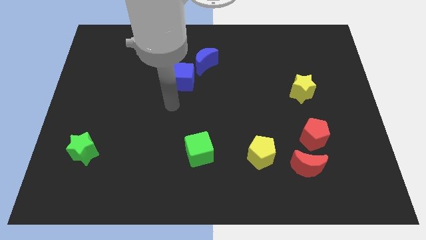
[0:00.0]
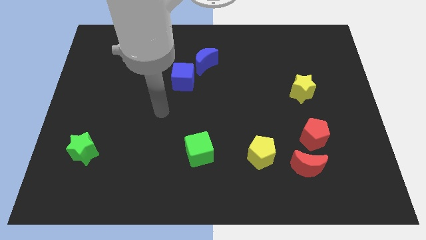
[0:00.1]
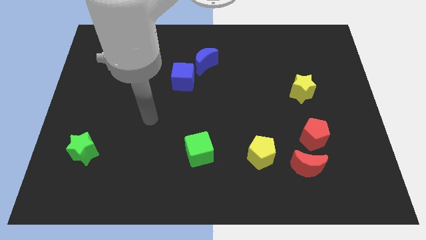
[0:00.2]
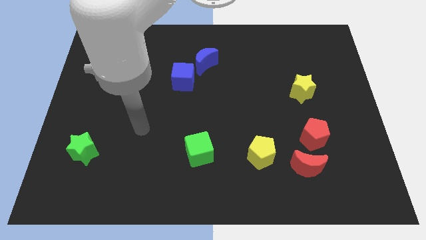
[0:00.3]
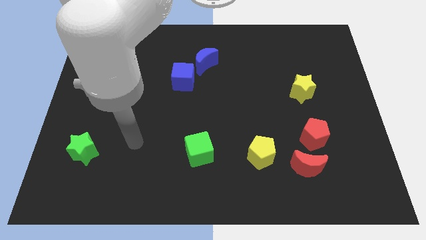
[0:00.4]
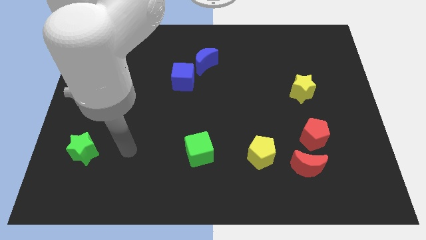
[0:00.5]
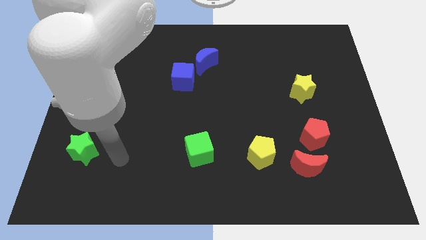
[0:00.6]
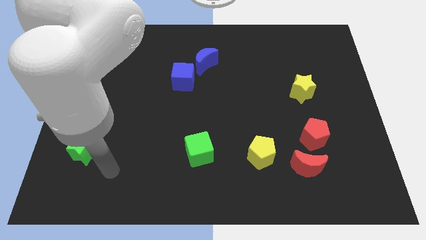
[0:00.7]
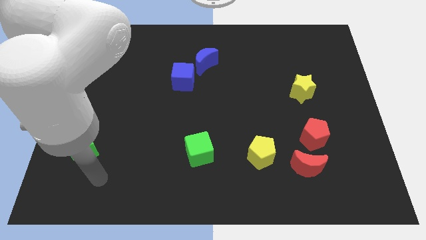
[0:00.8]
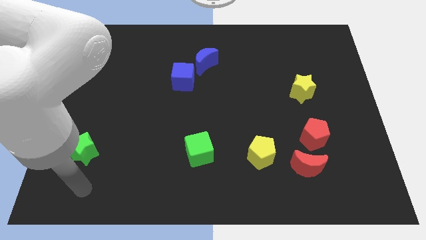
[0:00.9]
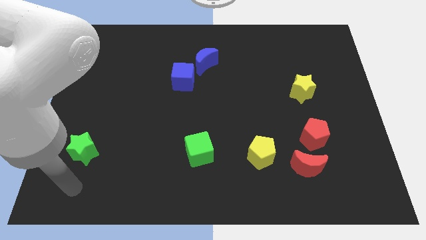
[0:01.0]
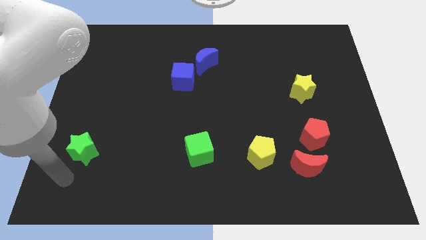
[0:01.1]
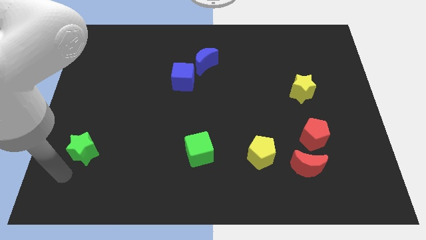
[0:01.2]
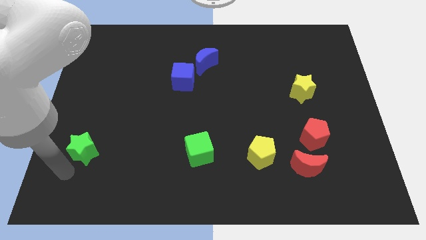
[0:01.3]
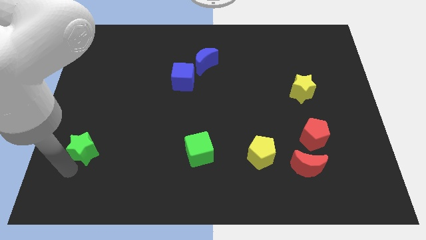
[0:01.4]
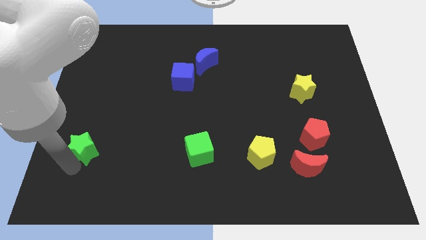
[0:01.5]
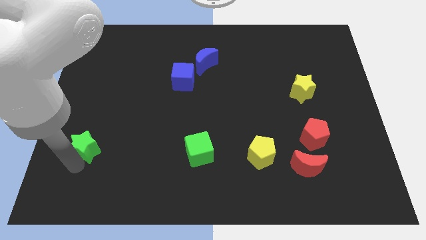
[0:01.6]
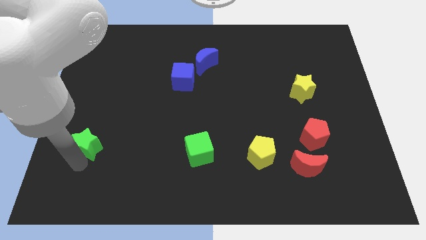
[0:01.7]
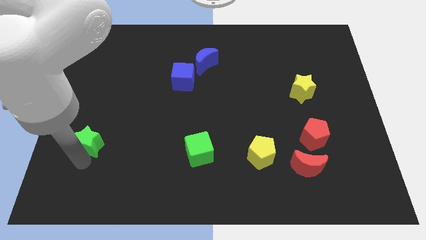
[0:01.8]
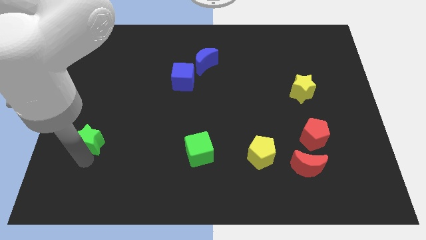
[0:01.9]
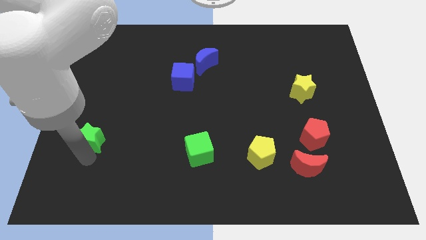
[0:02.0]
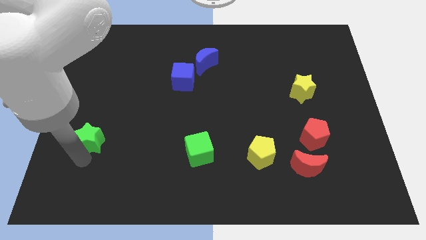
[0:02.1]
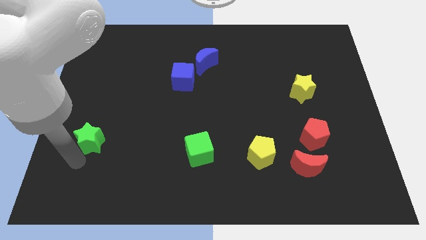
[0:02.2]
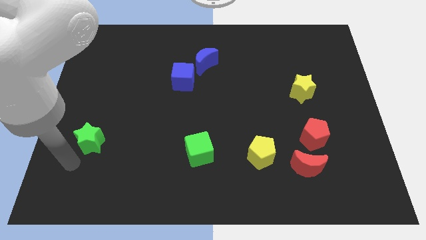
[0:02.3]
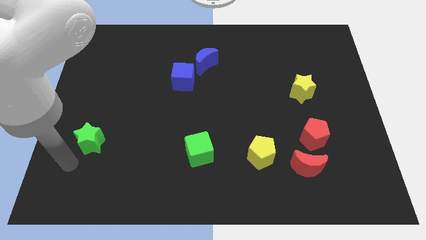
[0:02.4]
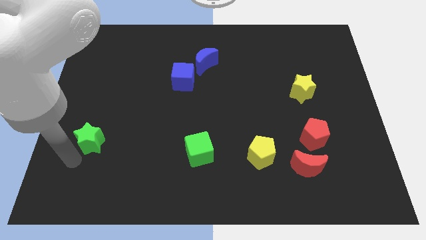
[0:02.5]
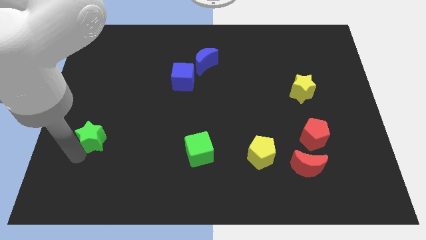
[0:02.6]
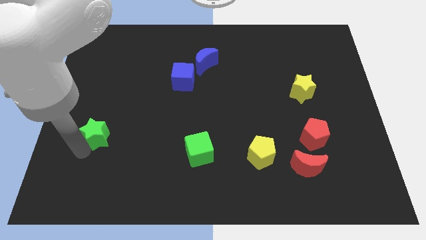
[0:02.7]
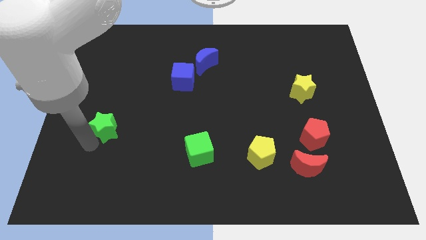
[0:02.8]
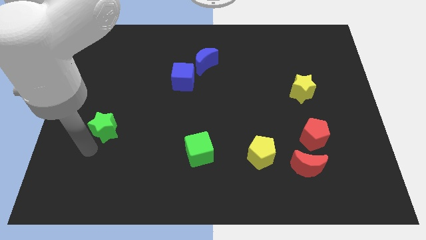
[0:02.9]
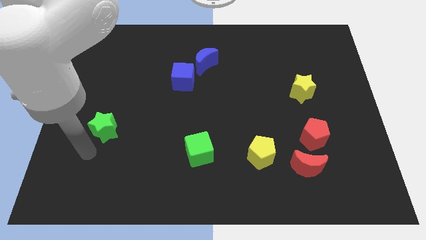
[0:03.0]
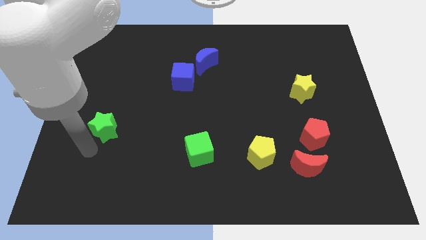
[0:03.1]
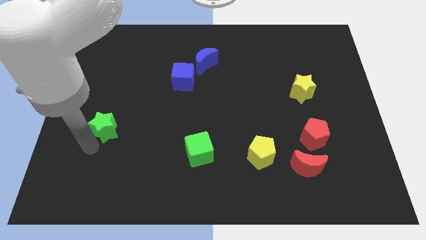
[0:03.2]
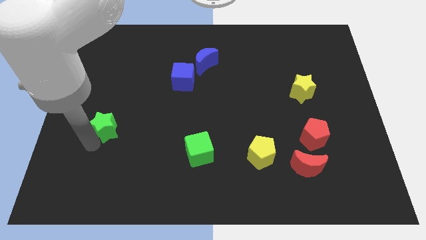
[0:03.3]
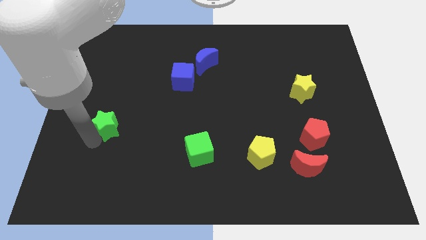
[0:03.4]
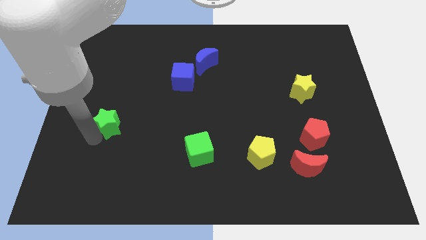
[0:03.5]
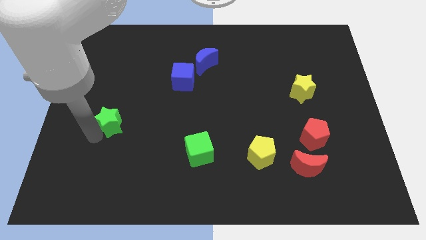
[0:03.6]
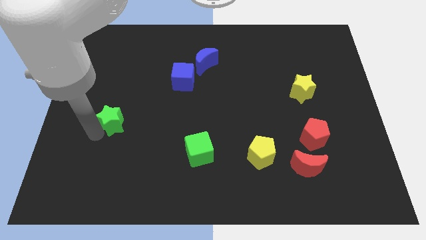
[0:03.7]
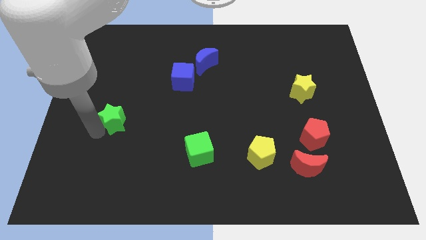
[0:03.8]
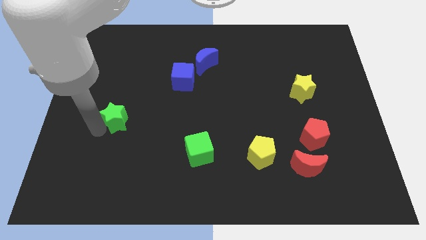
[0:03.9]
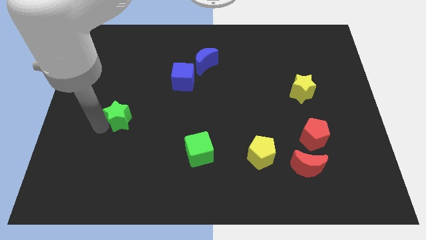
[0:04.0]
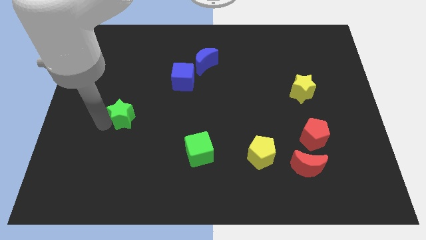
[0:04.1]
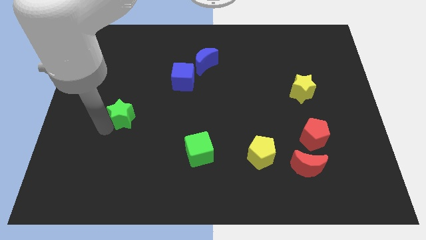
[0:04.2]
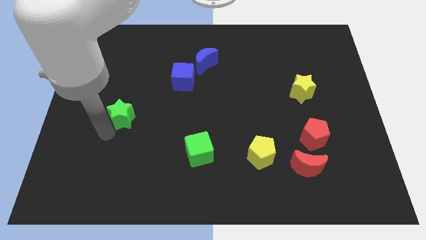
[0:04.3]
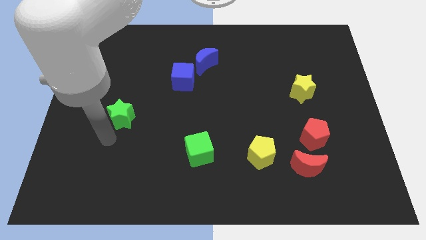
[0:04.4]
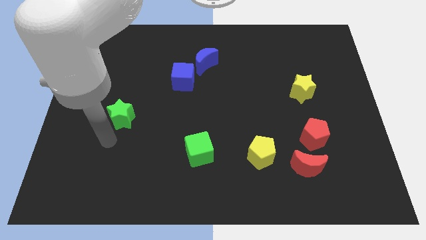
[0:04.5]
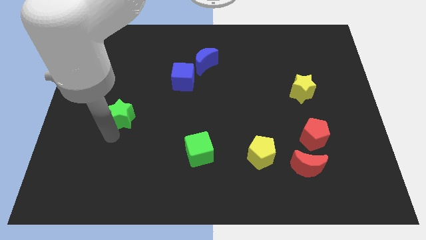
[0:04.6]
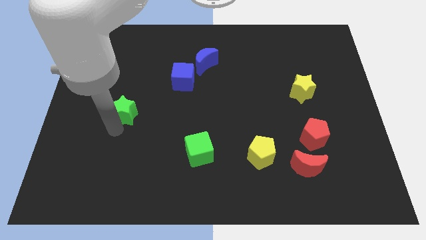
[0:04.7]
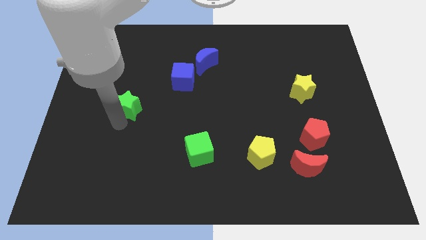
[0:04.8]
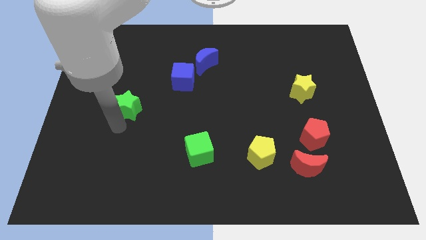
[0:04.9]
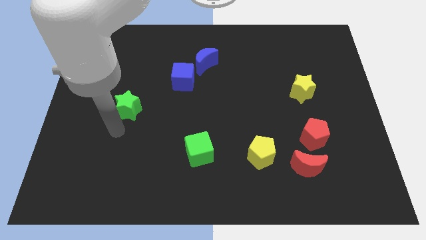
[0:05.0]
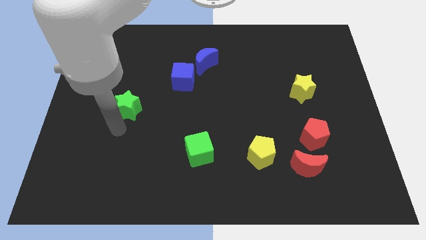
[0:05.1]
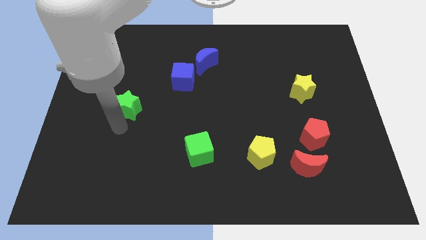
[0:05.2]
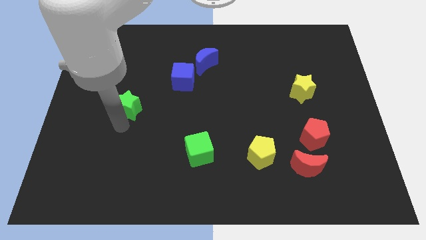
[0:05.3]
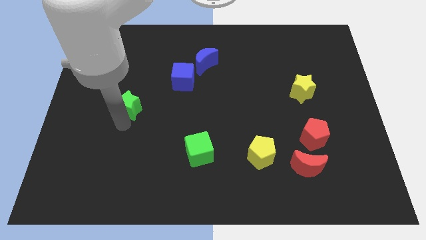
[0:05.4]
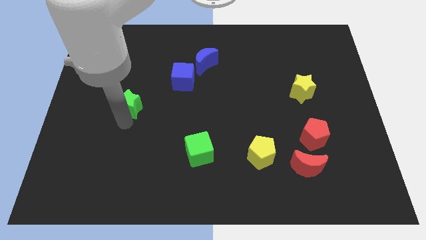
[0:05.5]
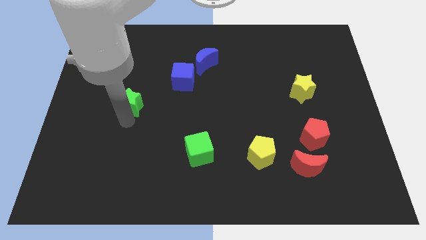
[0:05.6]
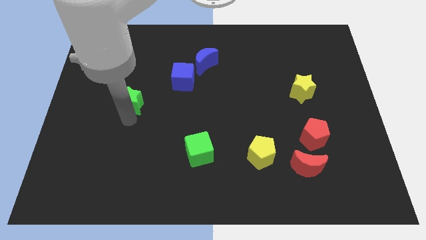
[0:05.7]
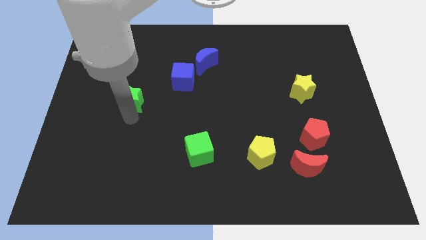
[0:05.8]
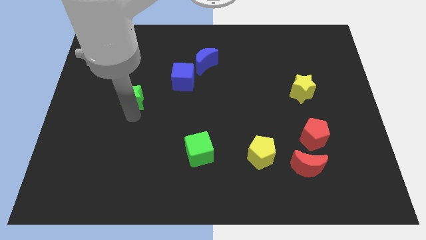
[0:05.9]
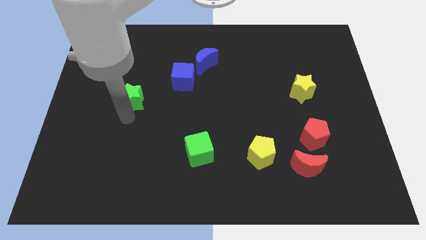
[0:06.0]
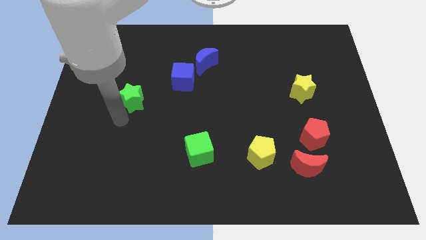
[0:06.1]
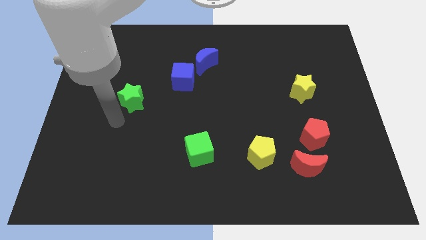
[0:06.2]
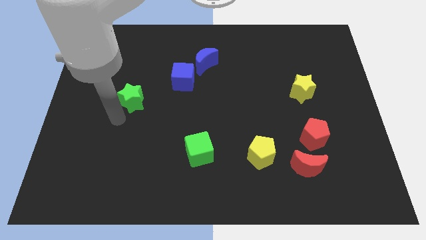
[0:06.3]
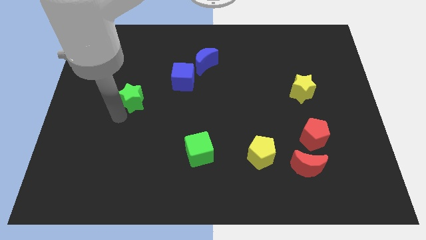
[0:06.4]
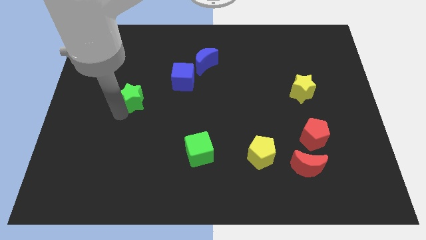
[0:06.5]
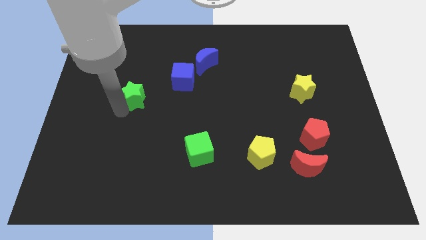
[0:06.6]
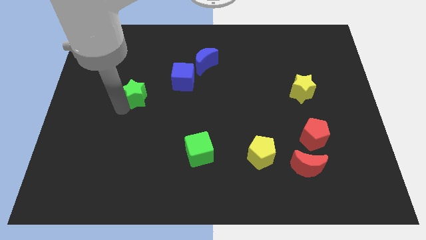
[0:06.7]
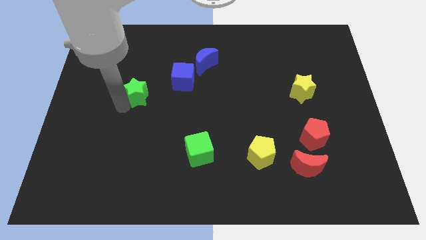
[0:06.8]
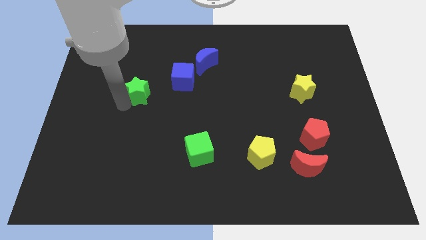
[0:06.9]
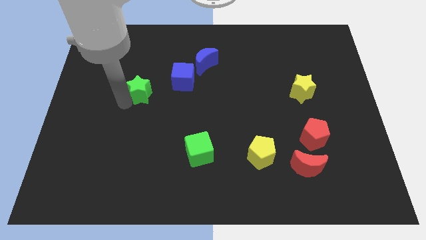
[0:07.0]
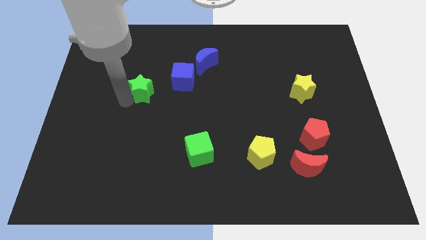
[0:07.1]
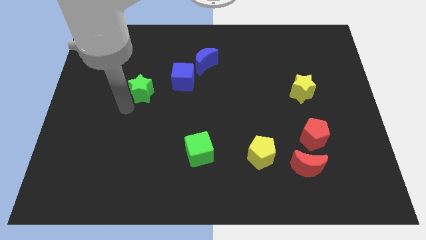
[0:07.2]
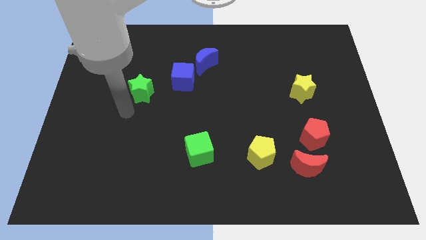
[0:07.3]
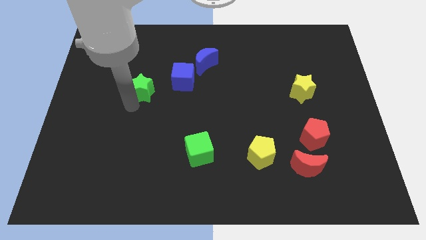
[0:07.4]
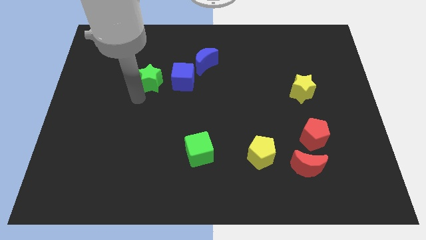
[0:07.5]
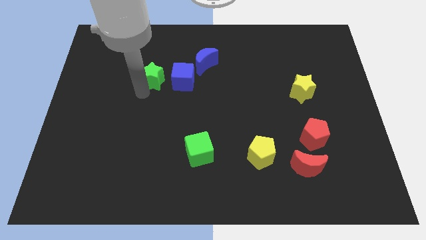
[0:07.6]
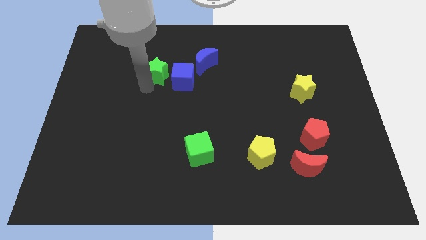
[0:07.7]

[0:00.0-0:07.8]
move the green star just left of the blue moon
